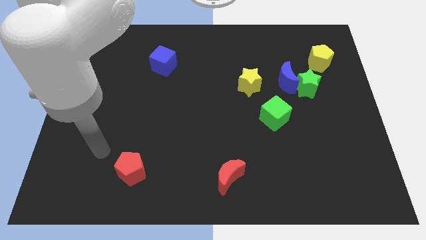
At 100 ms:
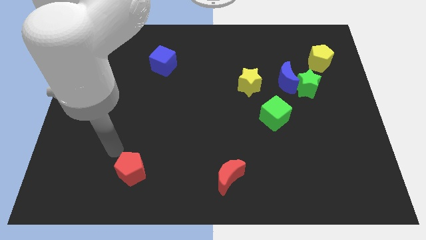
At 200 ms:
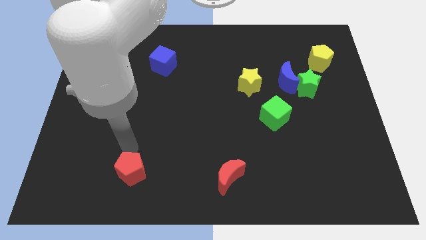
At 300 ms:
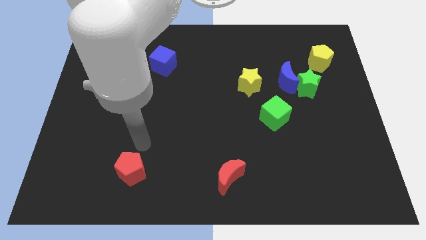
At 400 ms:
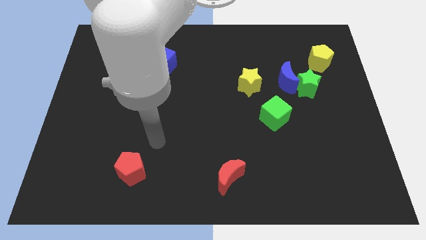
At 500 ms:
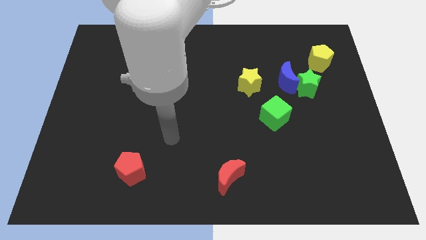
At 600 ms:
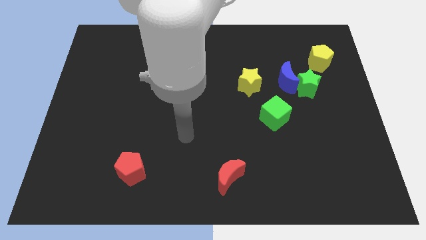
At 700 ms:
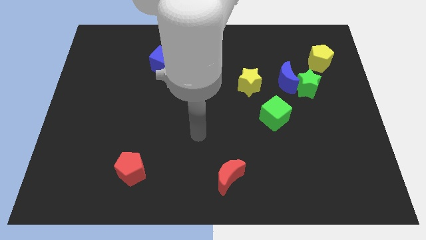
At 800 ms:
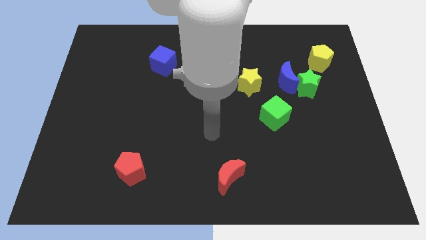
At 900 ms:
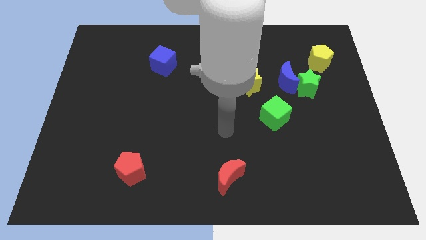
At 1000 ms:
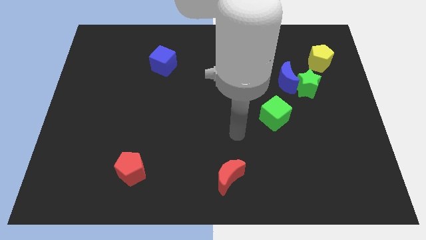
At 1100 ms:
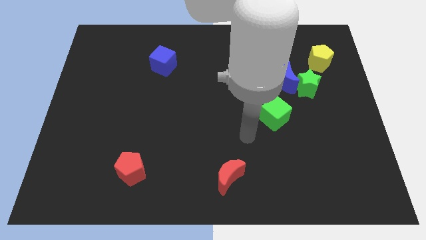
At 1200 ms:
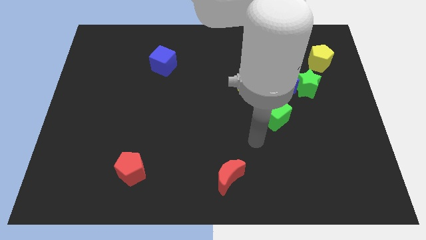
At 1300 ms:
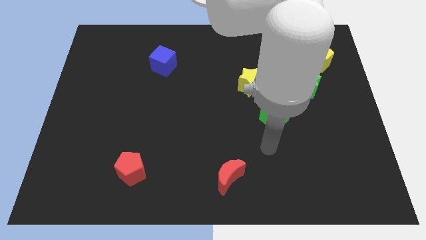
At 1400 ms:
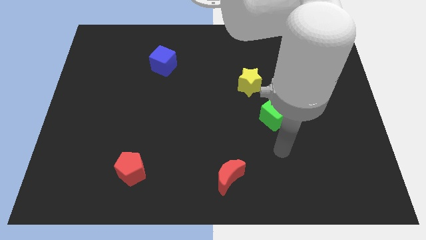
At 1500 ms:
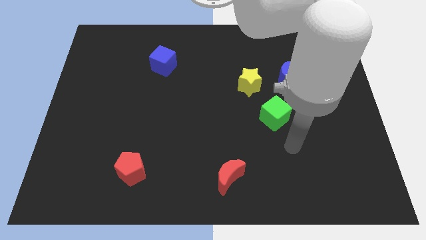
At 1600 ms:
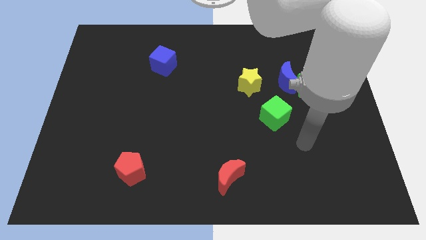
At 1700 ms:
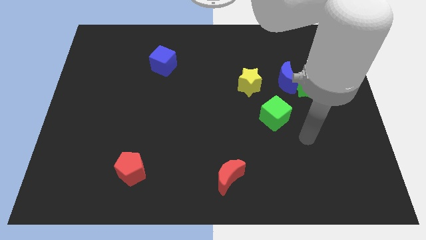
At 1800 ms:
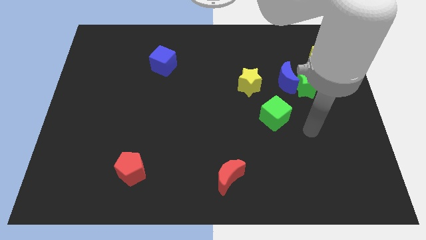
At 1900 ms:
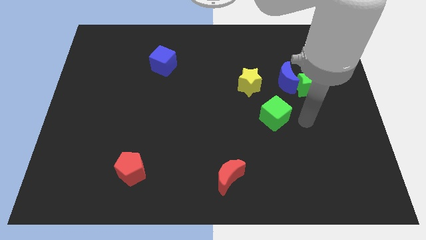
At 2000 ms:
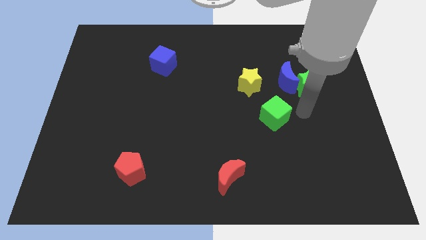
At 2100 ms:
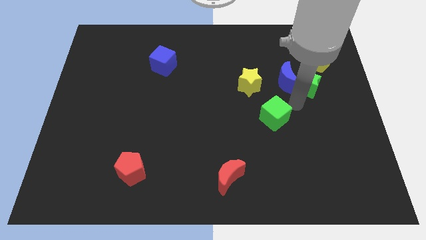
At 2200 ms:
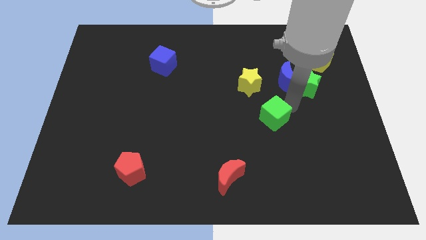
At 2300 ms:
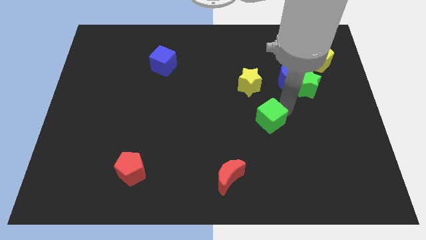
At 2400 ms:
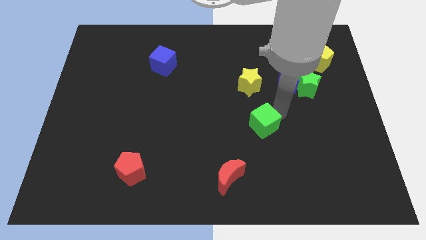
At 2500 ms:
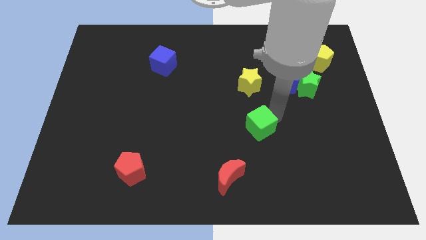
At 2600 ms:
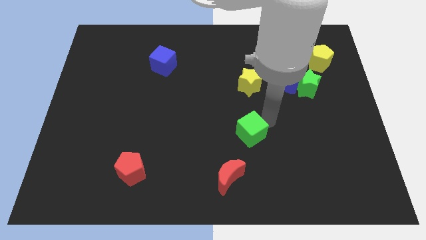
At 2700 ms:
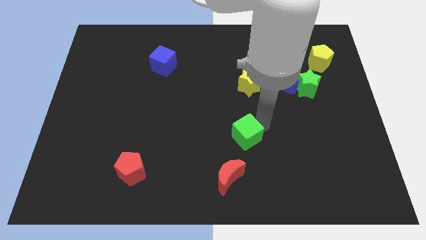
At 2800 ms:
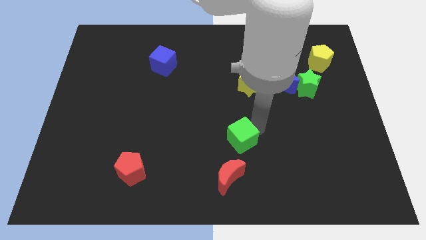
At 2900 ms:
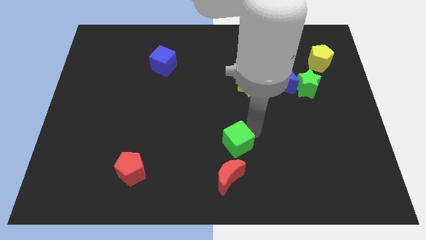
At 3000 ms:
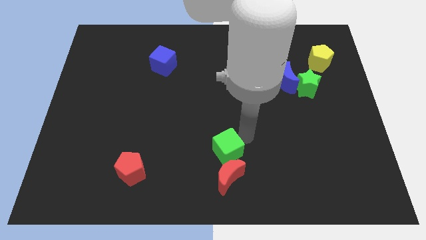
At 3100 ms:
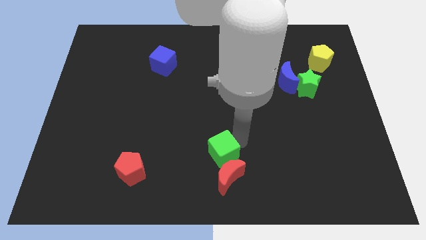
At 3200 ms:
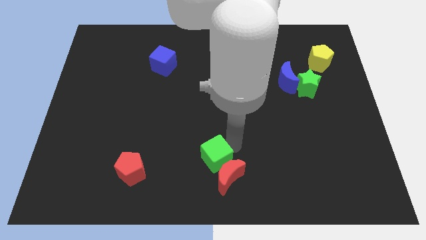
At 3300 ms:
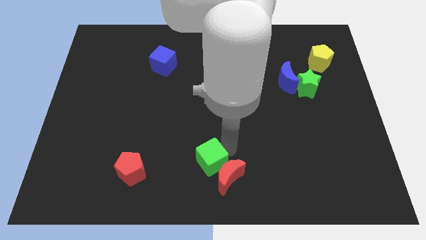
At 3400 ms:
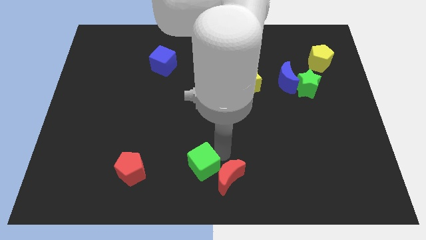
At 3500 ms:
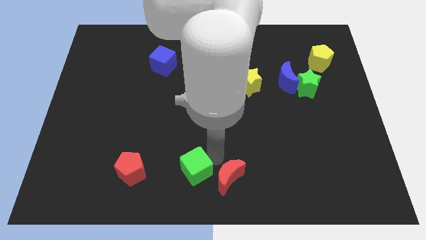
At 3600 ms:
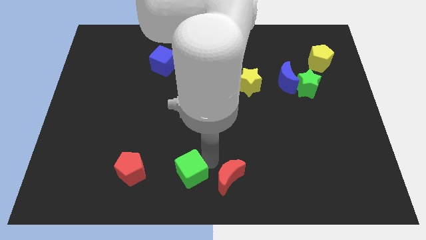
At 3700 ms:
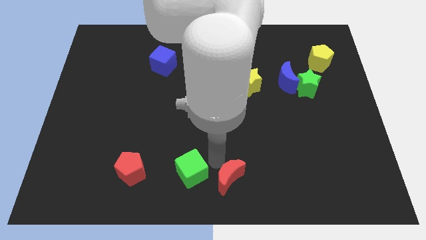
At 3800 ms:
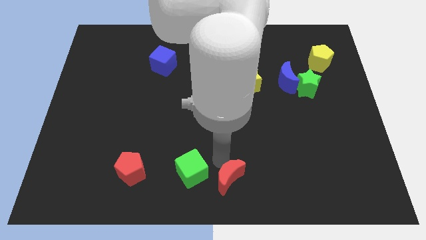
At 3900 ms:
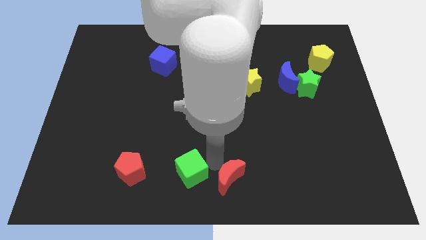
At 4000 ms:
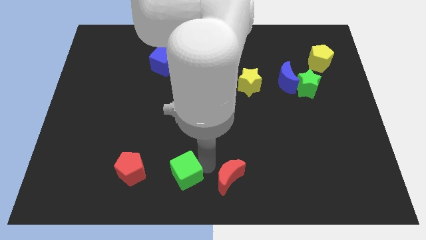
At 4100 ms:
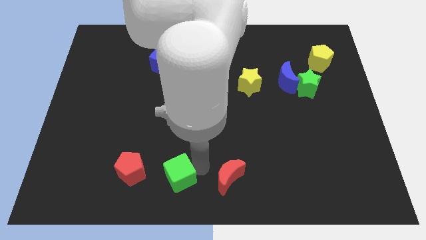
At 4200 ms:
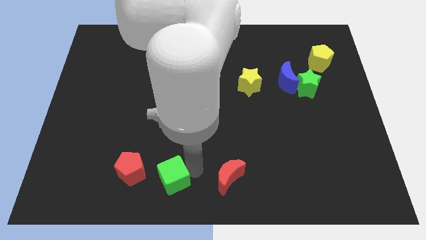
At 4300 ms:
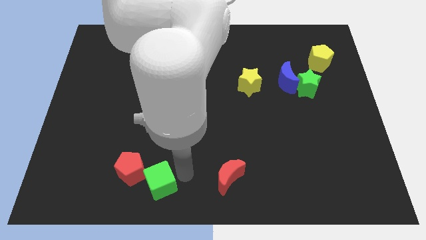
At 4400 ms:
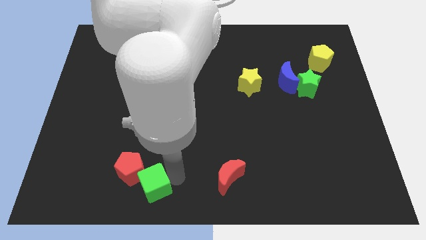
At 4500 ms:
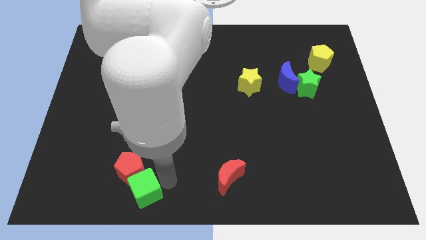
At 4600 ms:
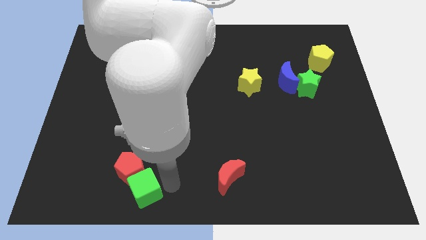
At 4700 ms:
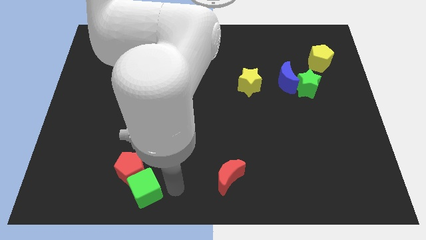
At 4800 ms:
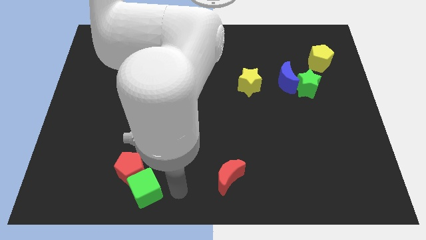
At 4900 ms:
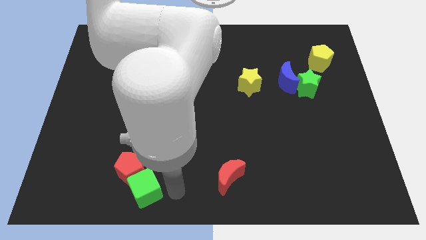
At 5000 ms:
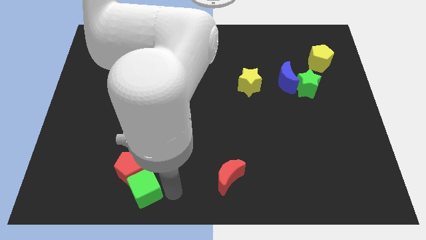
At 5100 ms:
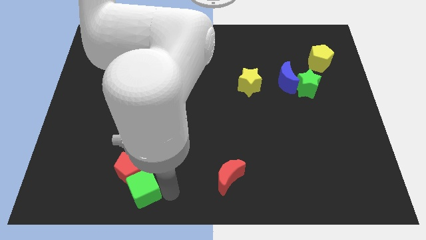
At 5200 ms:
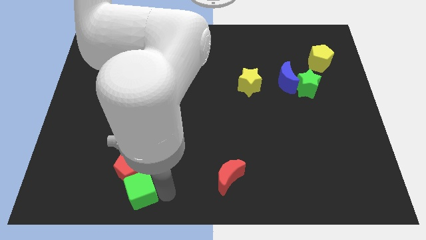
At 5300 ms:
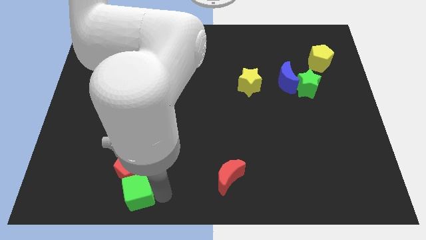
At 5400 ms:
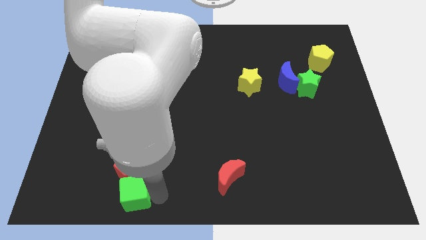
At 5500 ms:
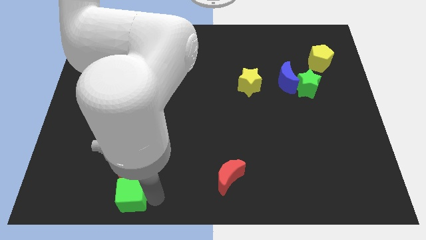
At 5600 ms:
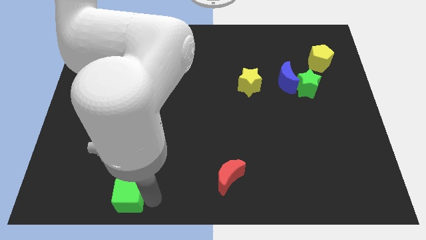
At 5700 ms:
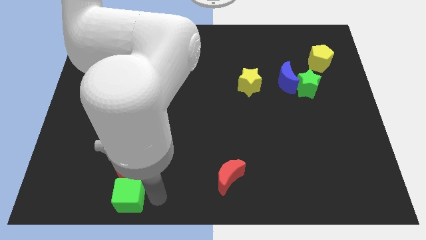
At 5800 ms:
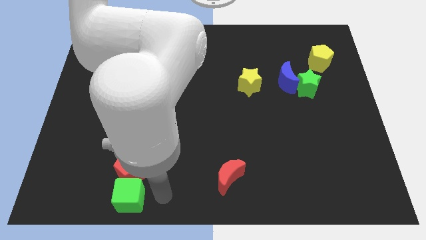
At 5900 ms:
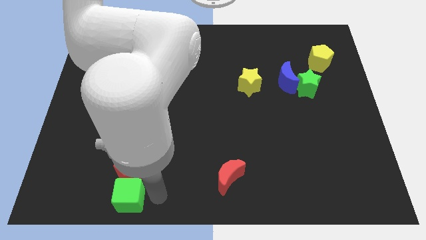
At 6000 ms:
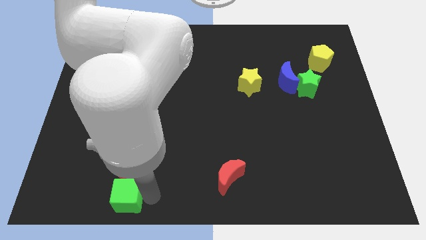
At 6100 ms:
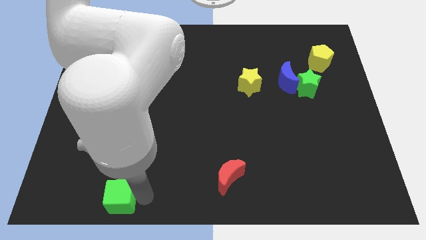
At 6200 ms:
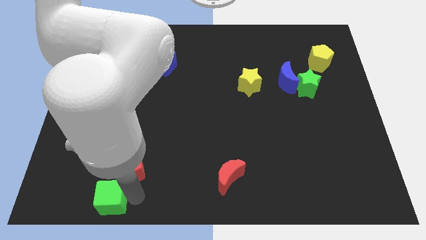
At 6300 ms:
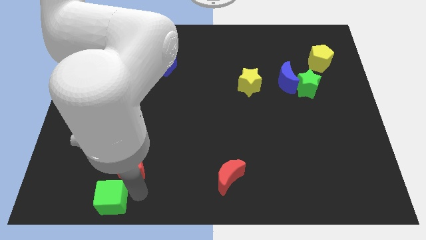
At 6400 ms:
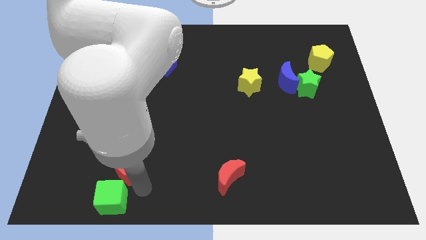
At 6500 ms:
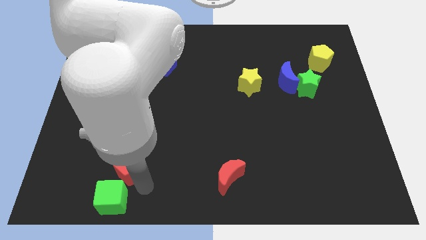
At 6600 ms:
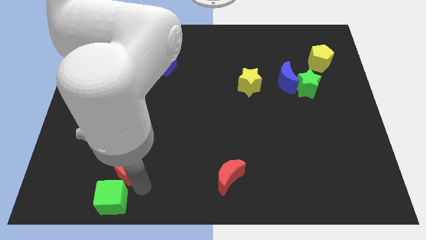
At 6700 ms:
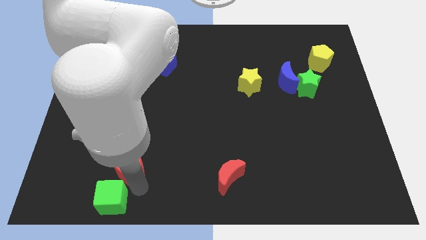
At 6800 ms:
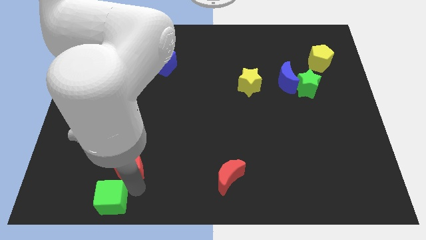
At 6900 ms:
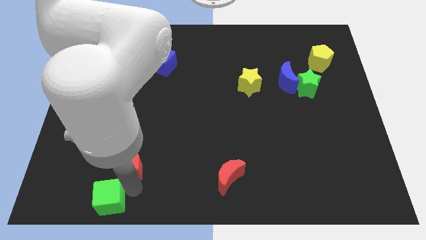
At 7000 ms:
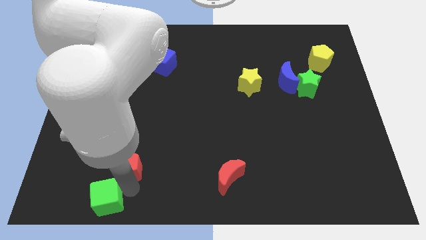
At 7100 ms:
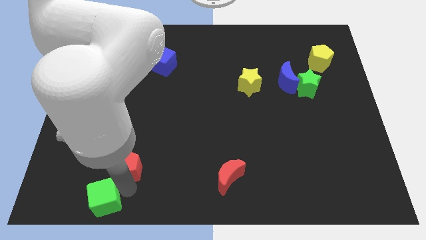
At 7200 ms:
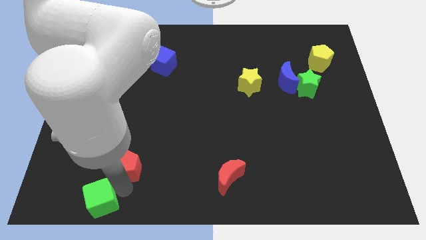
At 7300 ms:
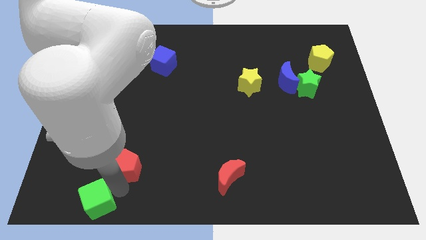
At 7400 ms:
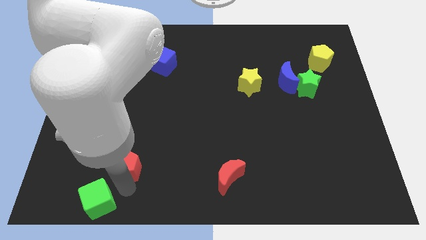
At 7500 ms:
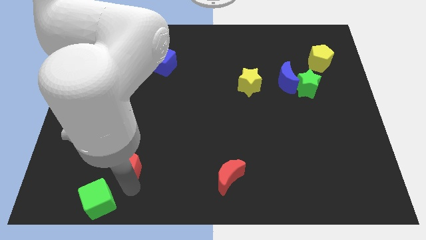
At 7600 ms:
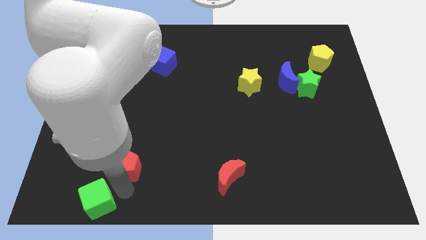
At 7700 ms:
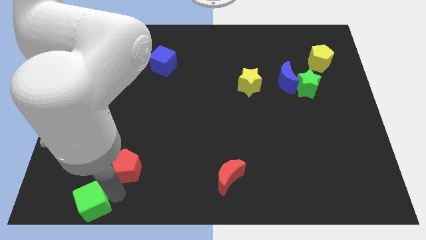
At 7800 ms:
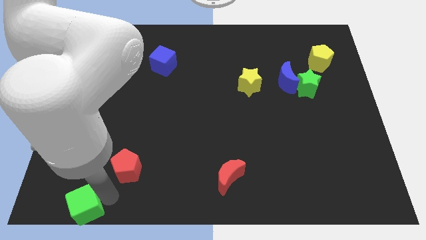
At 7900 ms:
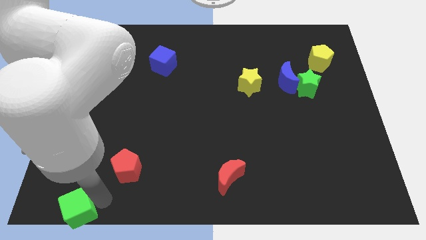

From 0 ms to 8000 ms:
put the green cube to the bottom left of the board
